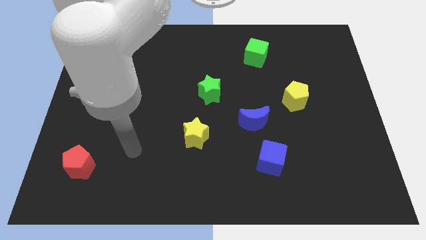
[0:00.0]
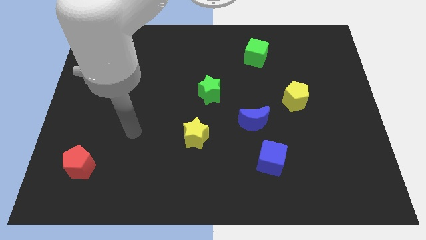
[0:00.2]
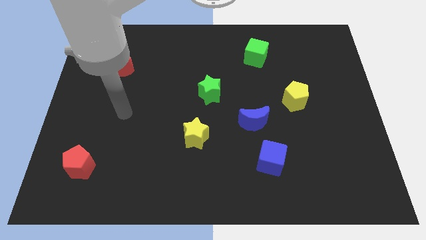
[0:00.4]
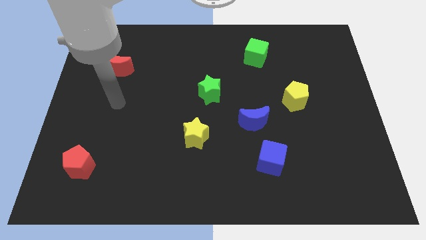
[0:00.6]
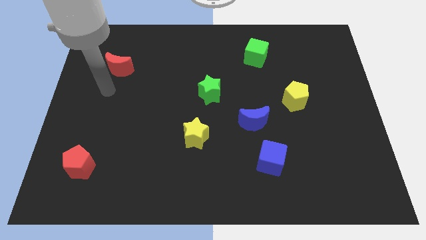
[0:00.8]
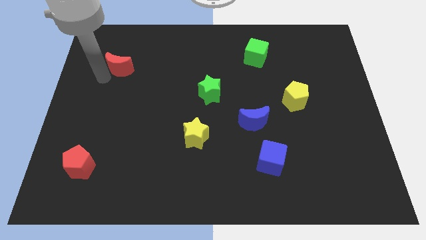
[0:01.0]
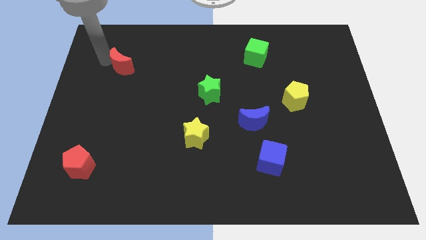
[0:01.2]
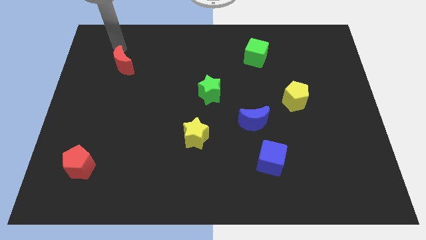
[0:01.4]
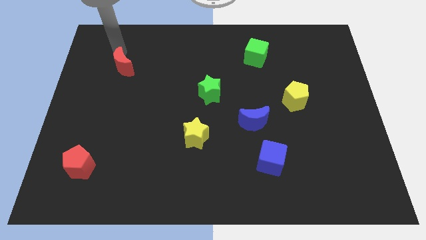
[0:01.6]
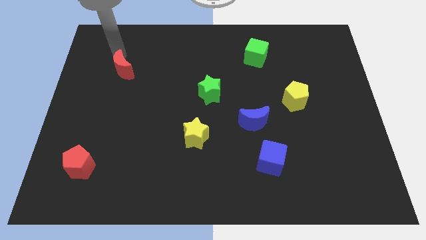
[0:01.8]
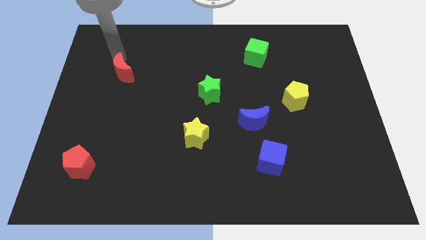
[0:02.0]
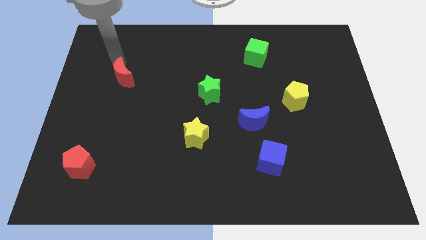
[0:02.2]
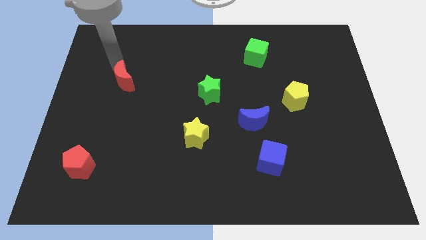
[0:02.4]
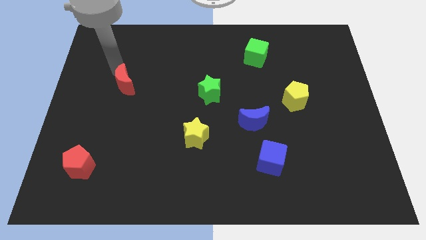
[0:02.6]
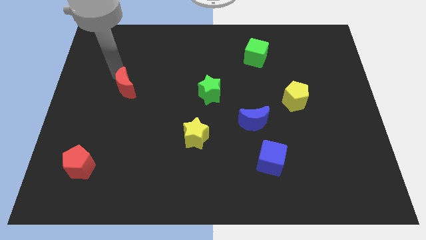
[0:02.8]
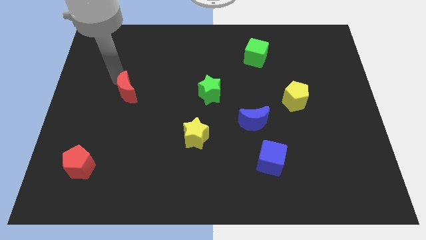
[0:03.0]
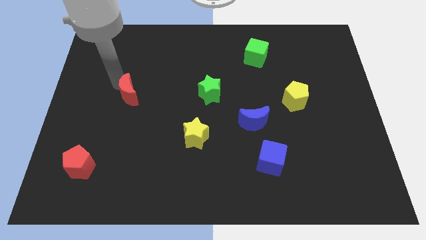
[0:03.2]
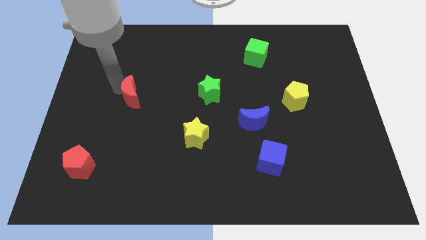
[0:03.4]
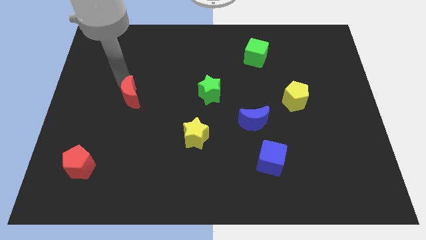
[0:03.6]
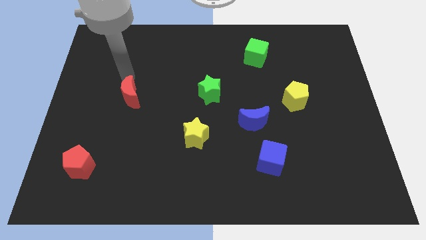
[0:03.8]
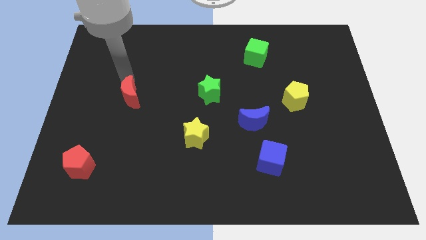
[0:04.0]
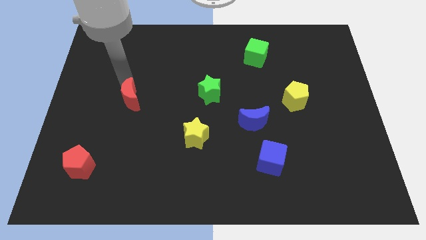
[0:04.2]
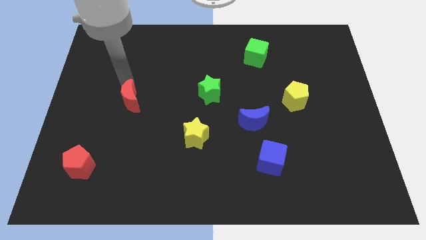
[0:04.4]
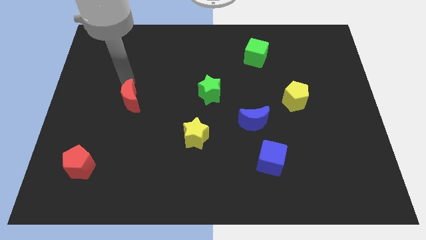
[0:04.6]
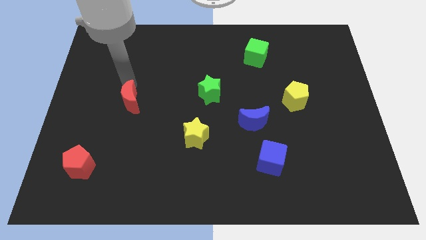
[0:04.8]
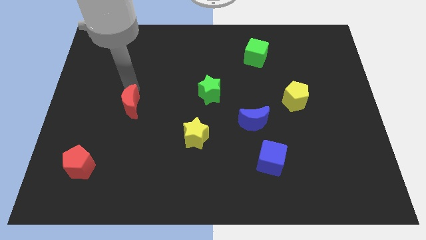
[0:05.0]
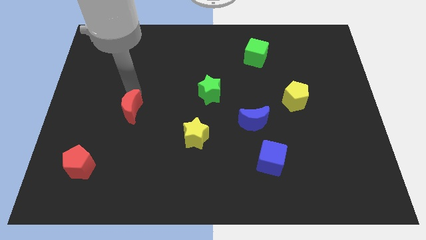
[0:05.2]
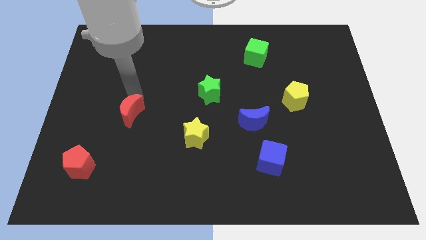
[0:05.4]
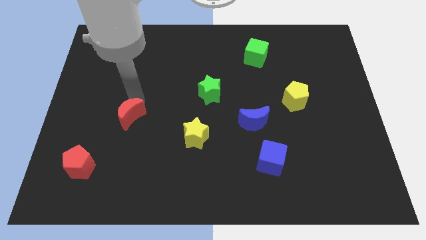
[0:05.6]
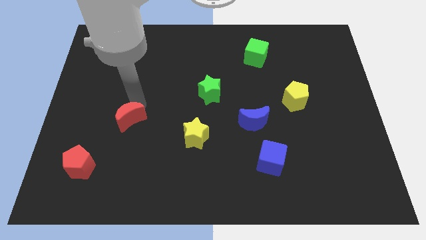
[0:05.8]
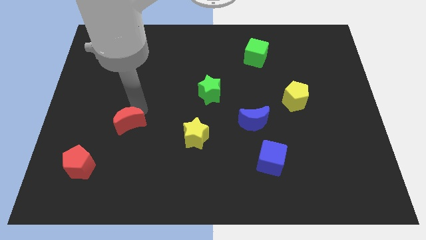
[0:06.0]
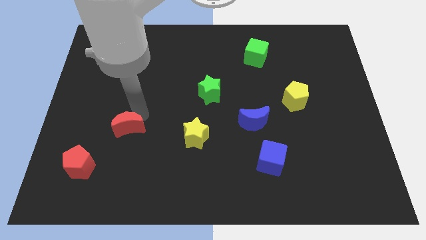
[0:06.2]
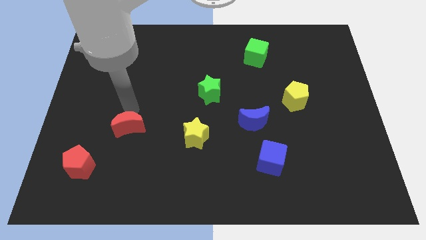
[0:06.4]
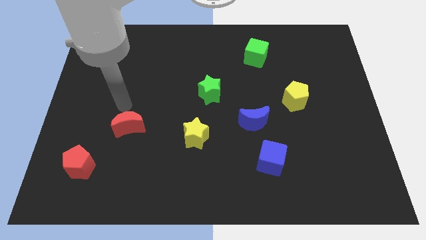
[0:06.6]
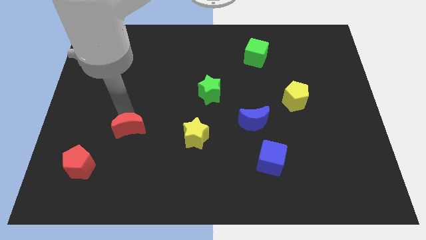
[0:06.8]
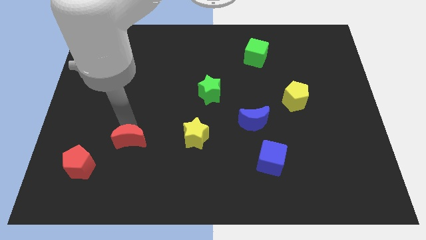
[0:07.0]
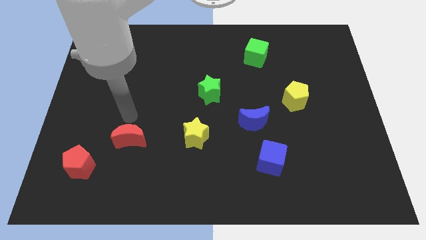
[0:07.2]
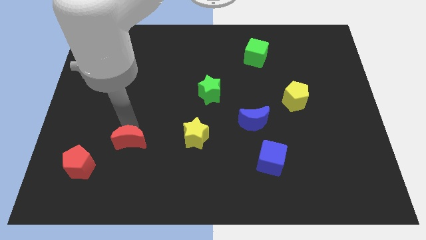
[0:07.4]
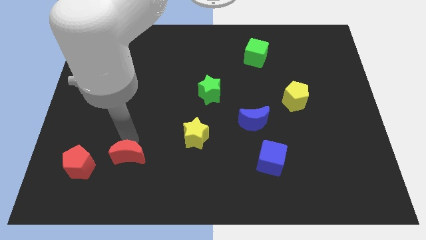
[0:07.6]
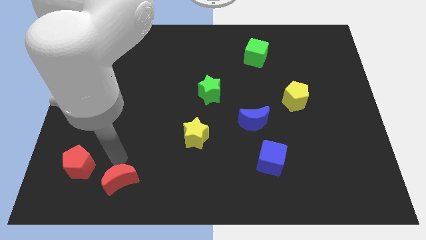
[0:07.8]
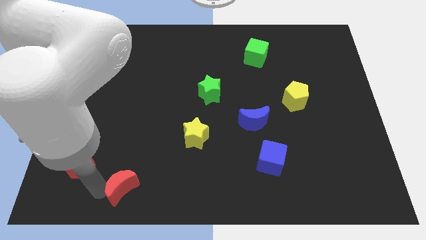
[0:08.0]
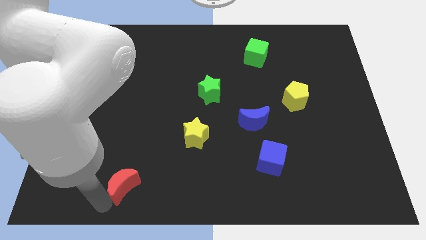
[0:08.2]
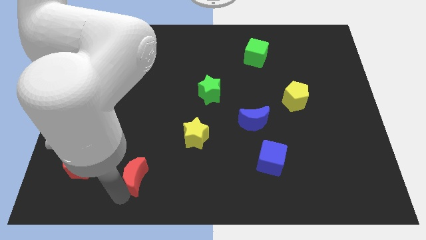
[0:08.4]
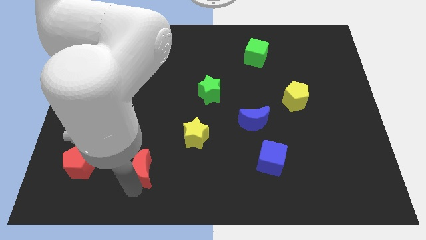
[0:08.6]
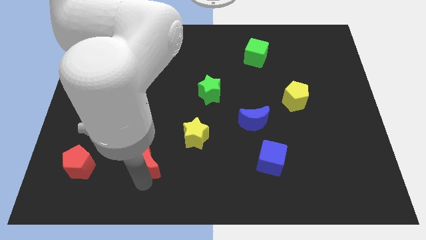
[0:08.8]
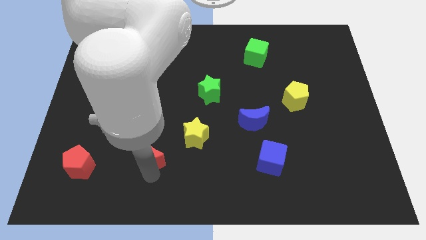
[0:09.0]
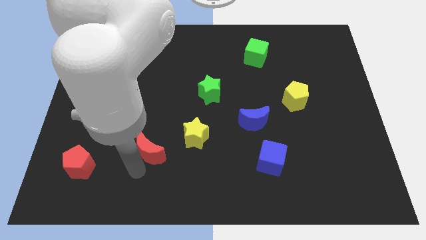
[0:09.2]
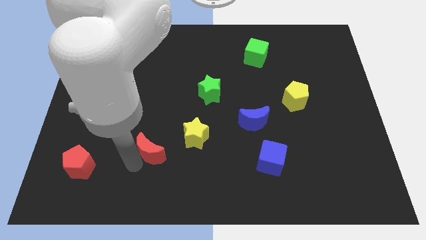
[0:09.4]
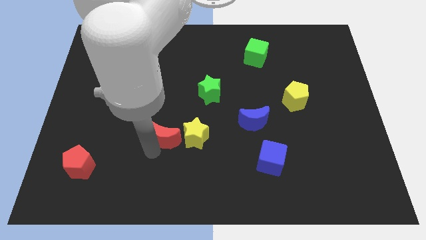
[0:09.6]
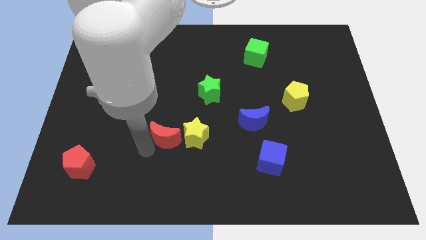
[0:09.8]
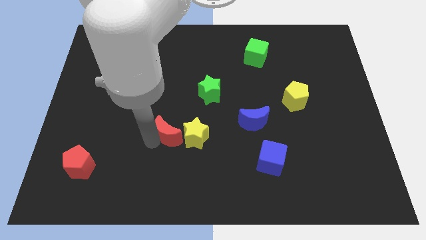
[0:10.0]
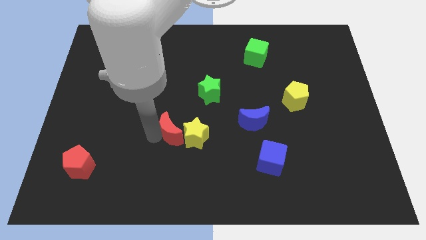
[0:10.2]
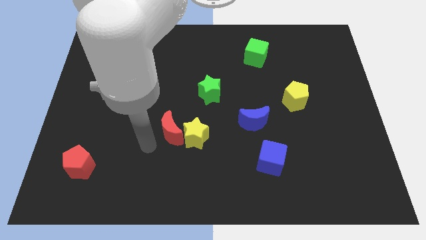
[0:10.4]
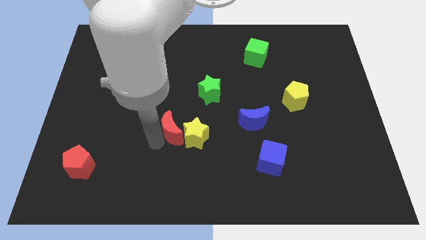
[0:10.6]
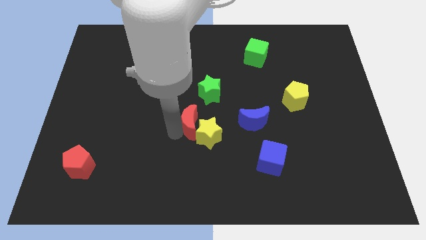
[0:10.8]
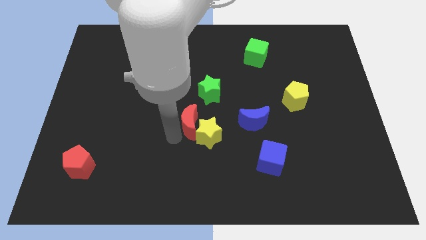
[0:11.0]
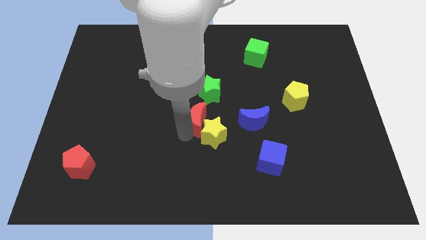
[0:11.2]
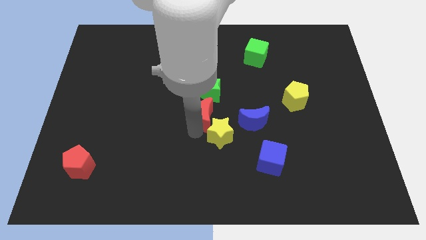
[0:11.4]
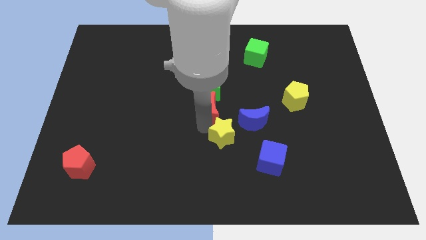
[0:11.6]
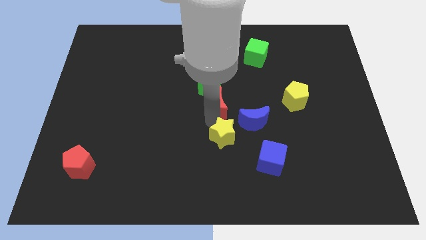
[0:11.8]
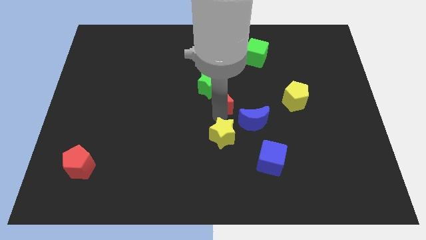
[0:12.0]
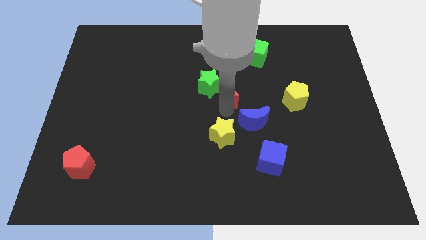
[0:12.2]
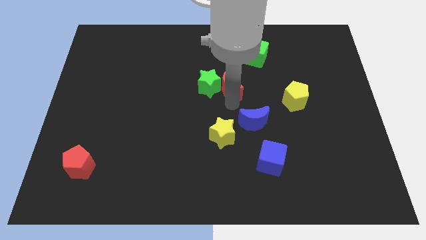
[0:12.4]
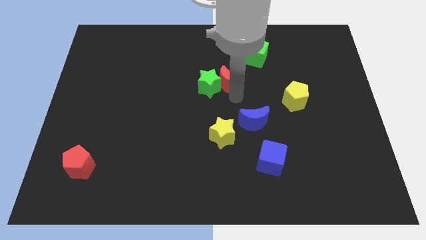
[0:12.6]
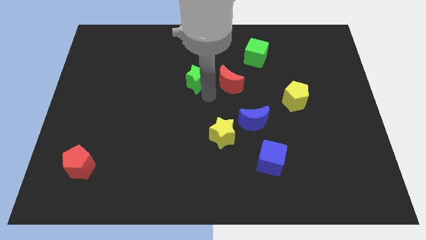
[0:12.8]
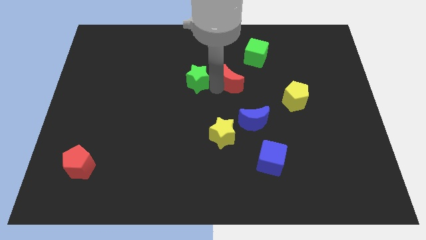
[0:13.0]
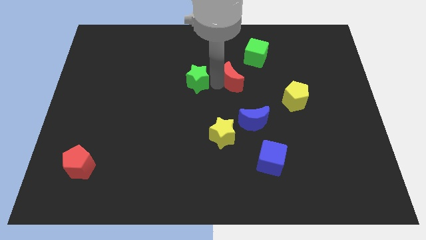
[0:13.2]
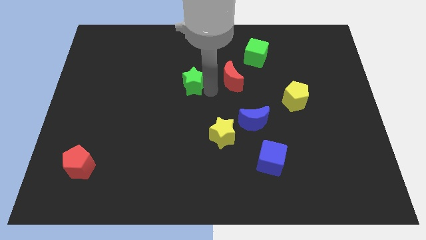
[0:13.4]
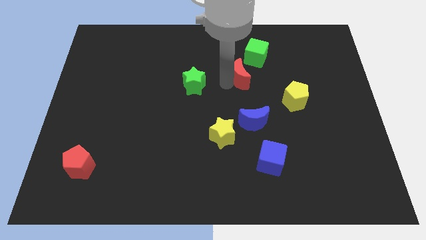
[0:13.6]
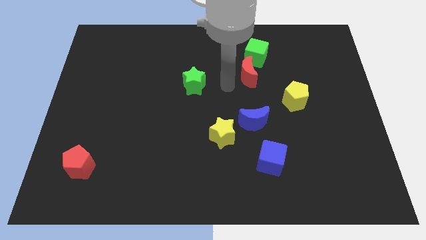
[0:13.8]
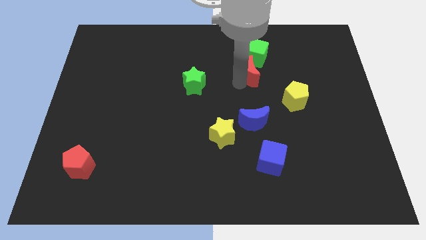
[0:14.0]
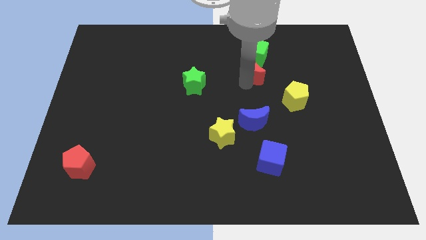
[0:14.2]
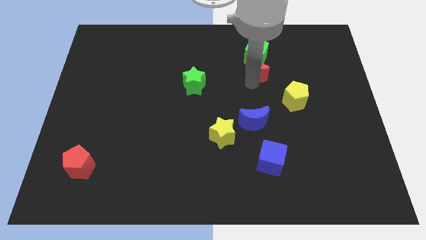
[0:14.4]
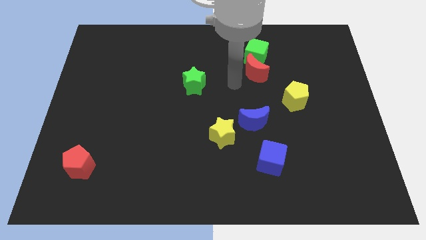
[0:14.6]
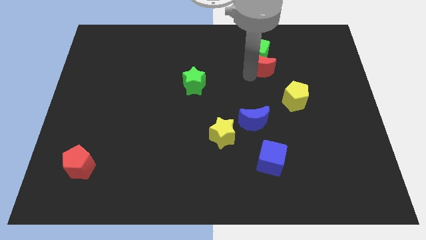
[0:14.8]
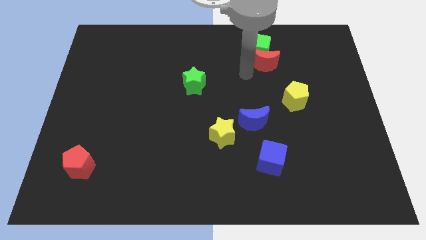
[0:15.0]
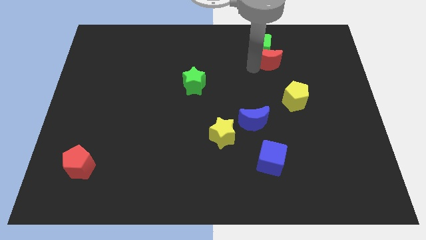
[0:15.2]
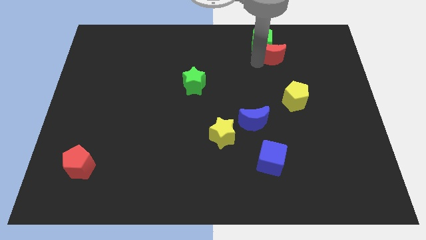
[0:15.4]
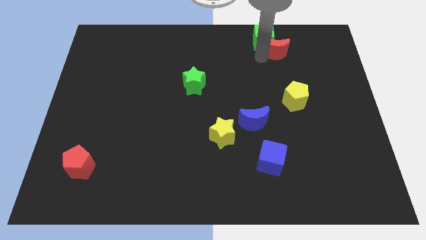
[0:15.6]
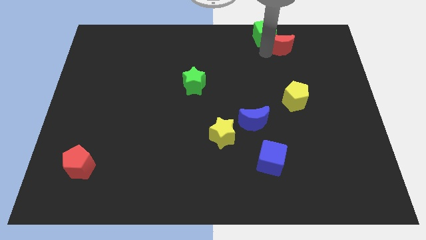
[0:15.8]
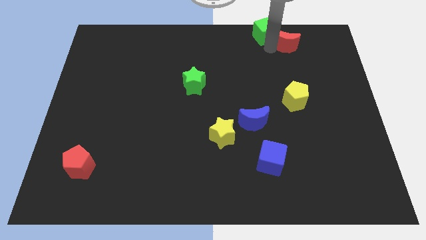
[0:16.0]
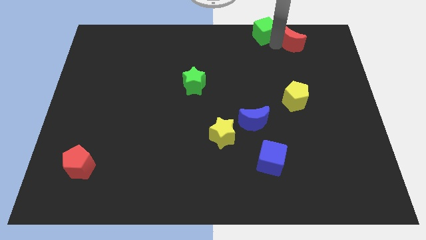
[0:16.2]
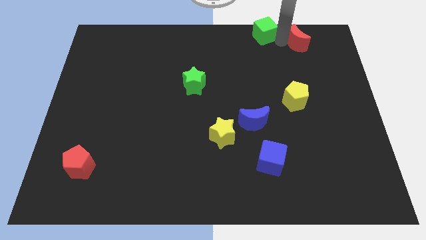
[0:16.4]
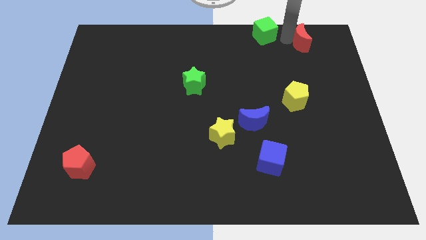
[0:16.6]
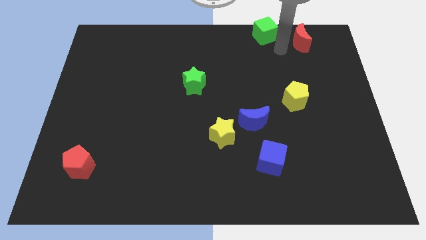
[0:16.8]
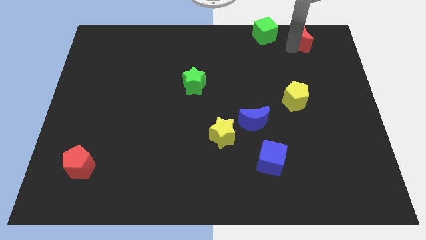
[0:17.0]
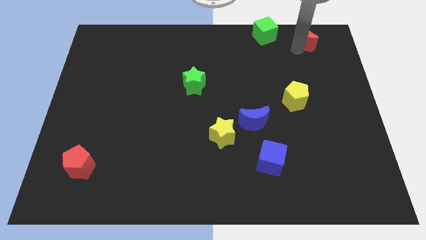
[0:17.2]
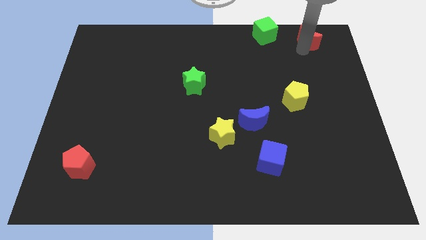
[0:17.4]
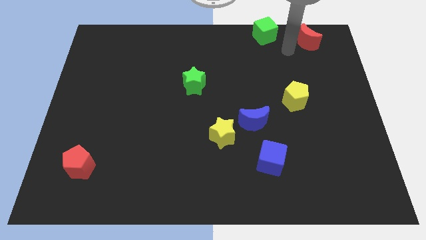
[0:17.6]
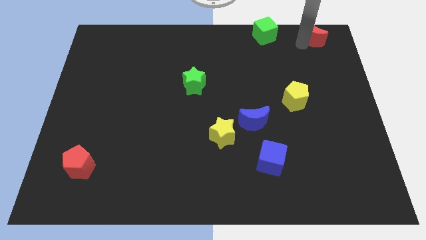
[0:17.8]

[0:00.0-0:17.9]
put the red moon to the top right of the board
